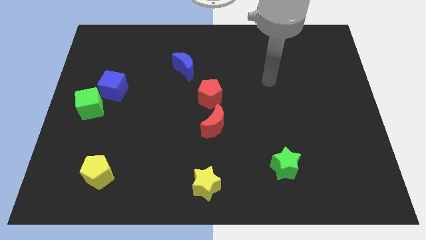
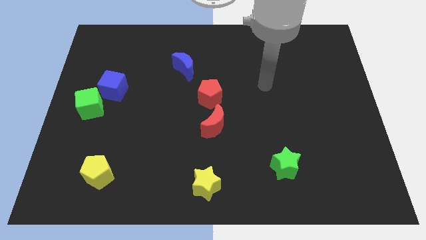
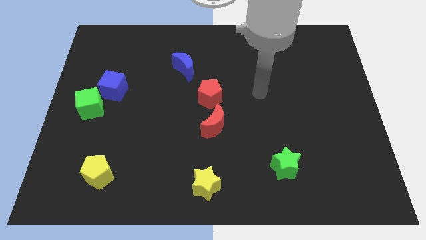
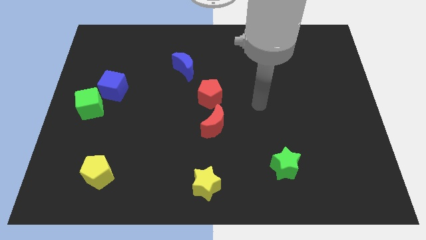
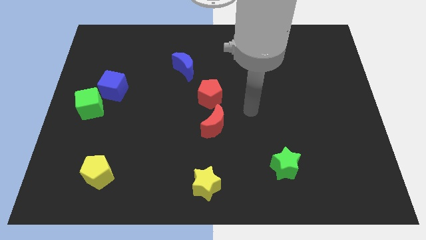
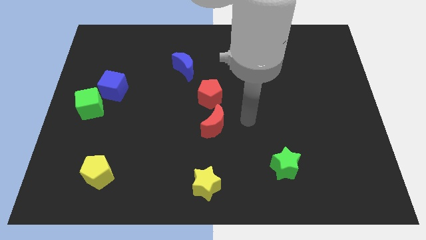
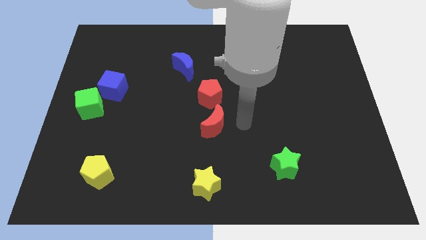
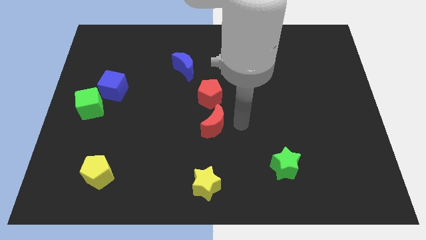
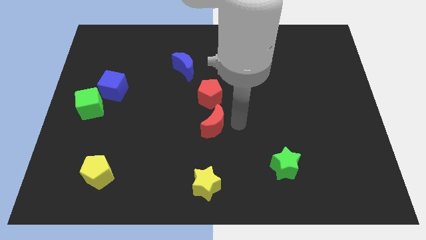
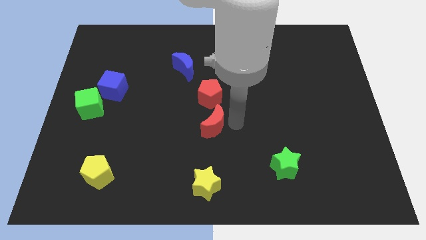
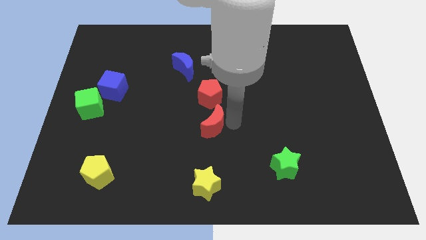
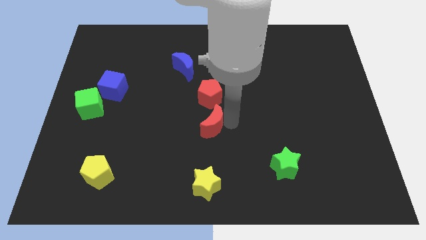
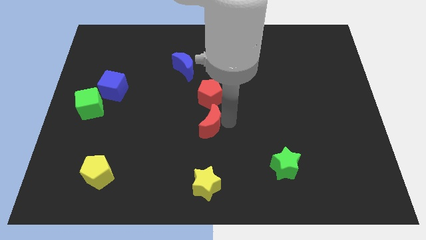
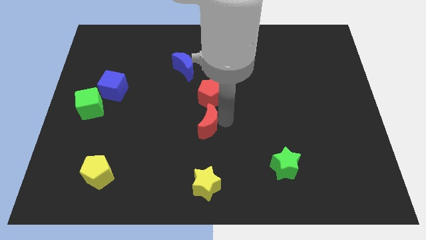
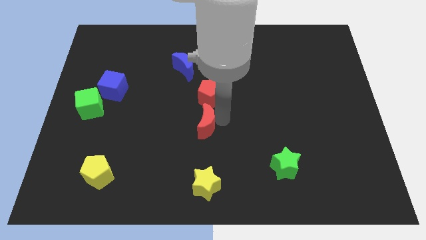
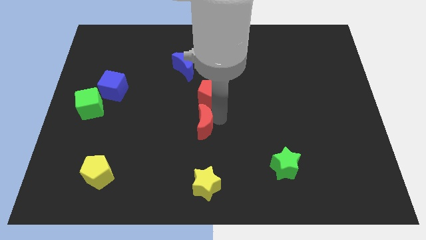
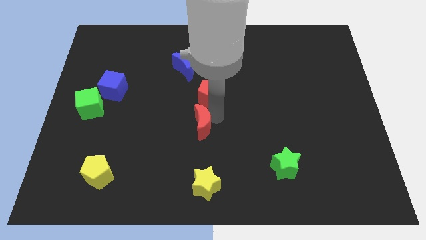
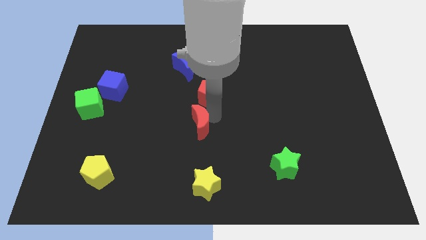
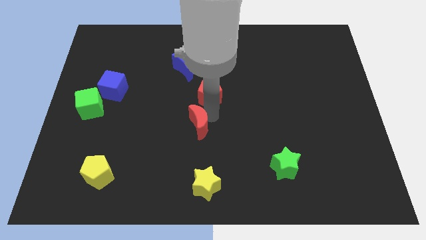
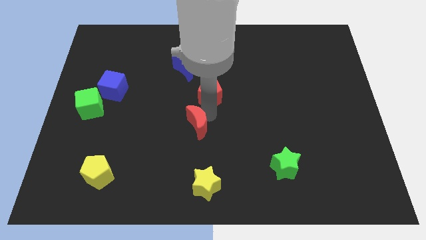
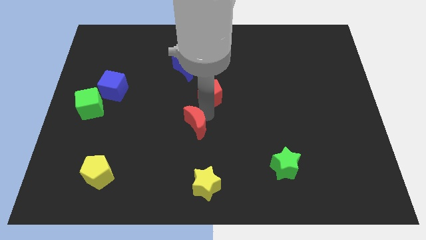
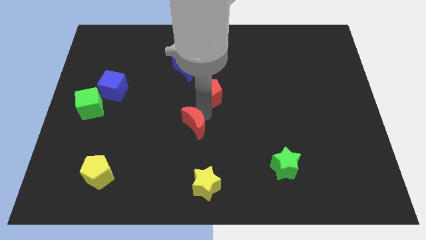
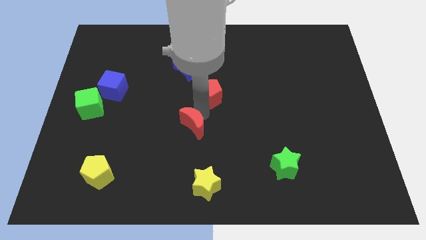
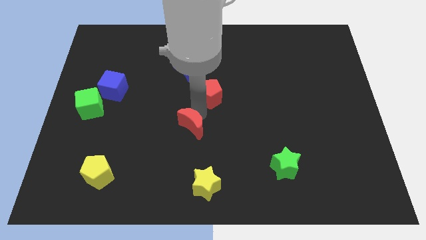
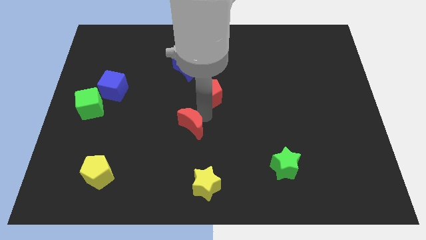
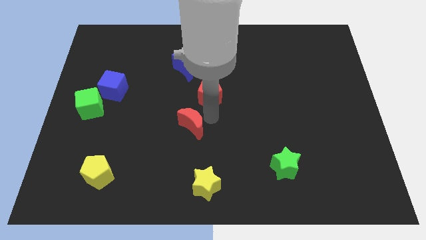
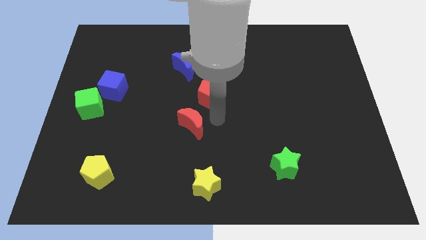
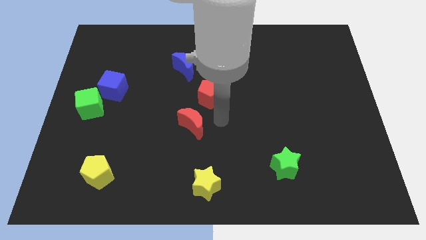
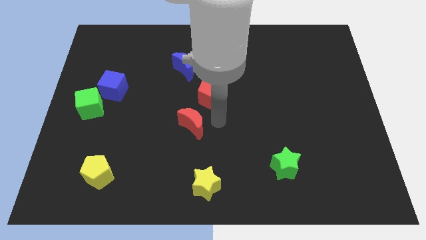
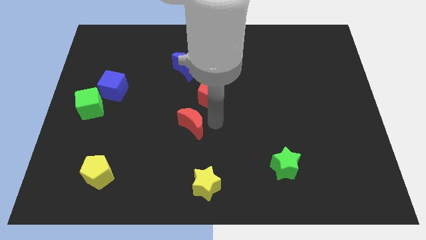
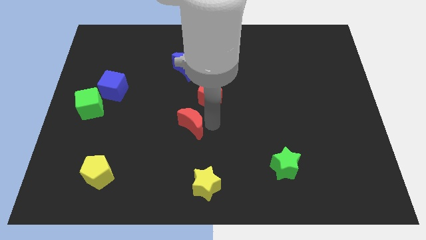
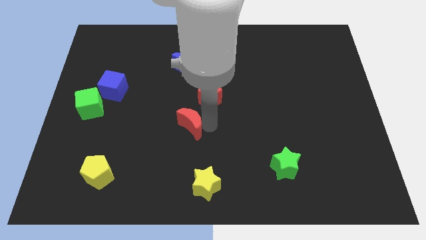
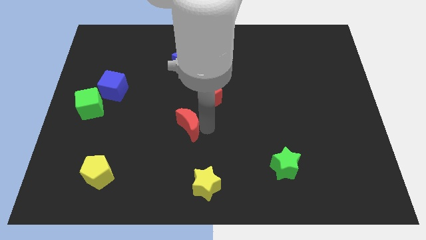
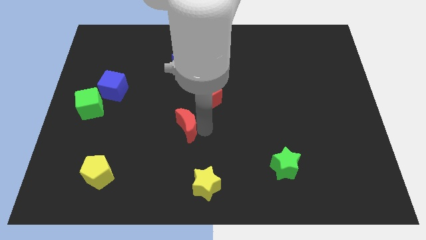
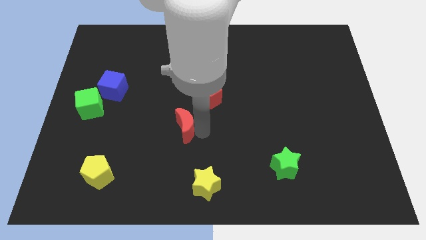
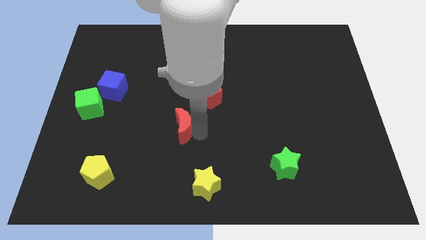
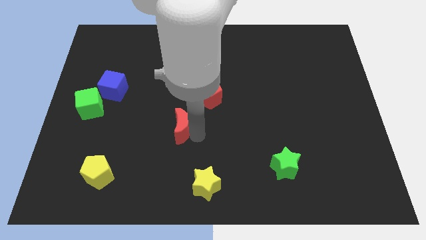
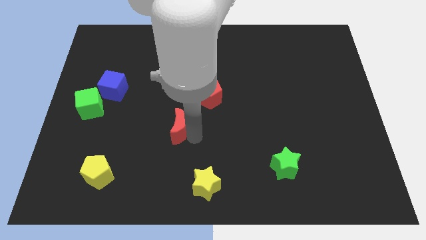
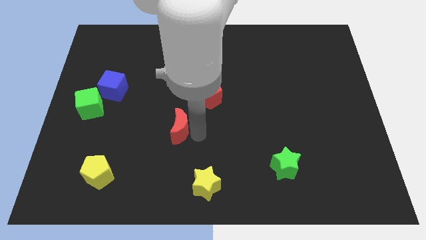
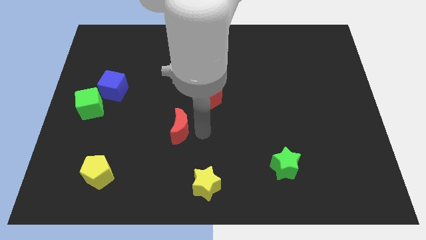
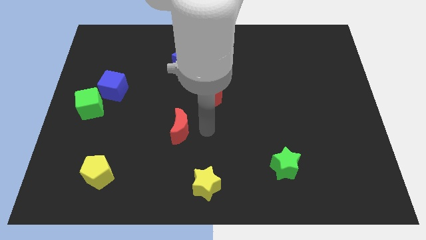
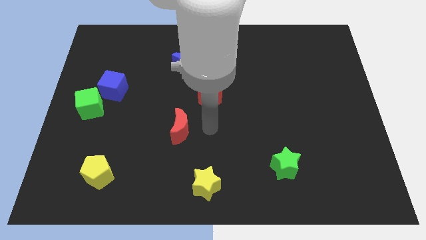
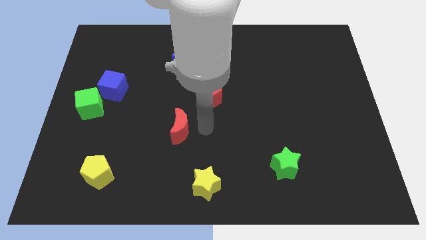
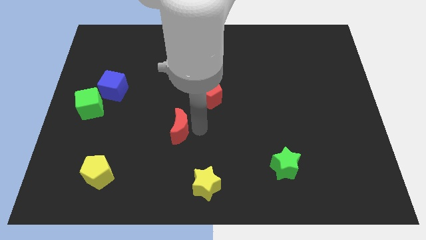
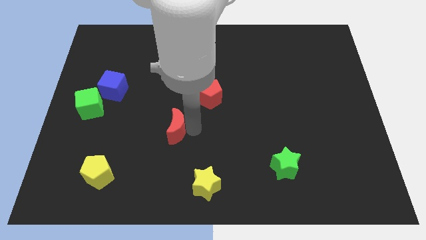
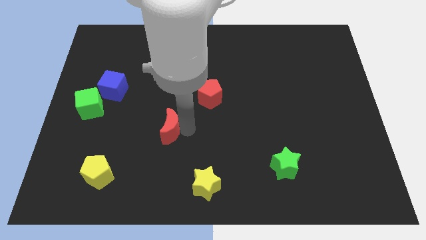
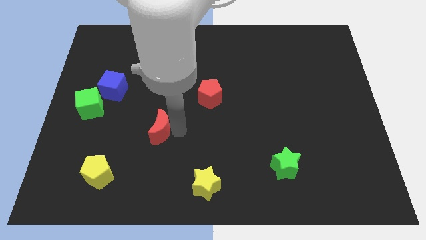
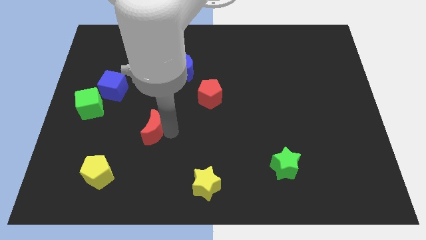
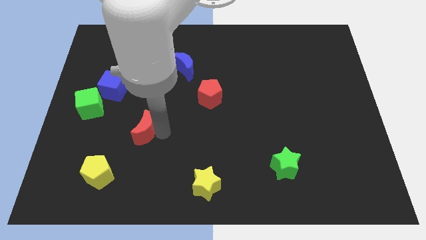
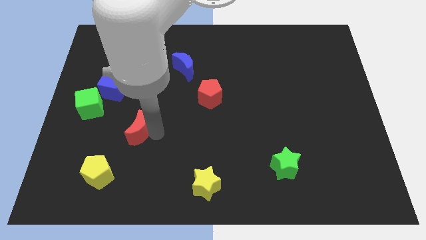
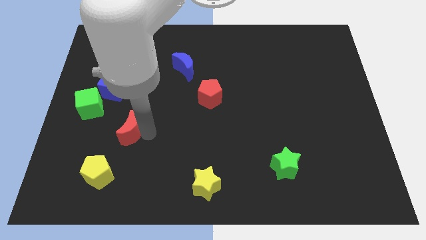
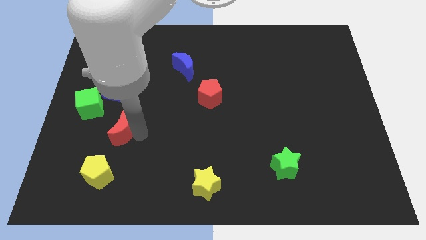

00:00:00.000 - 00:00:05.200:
move the red moon diagonally down and to the right of the green cube

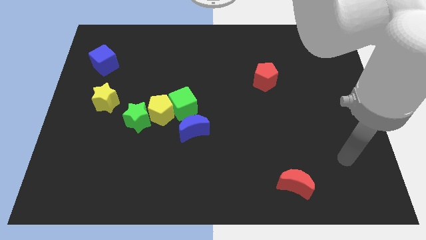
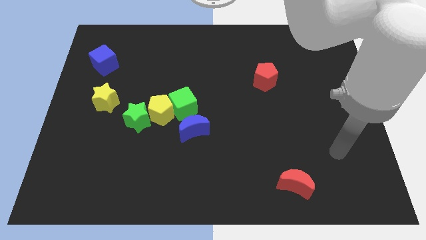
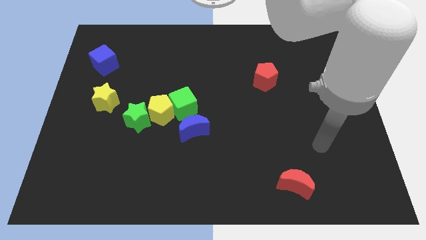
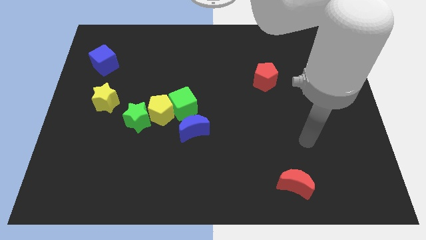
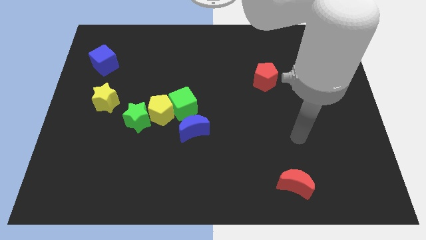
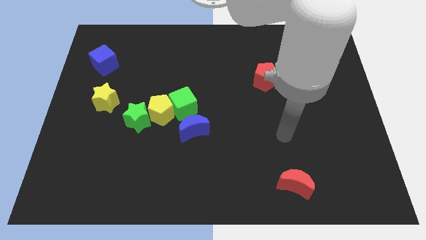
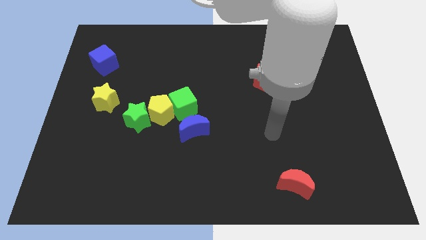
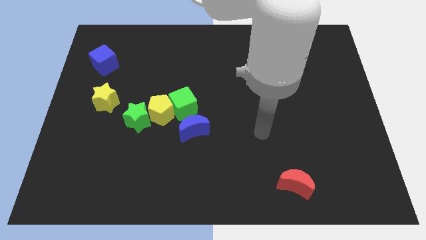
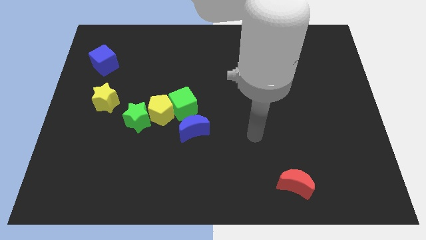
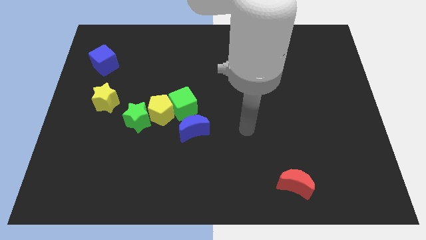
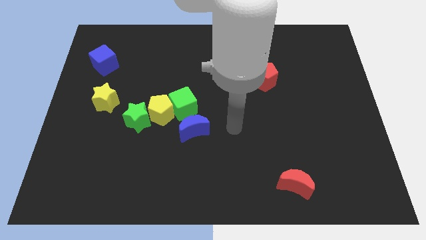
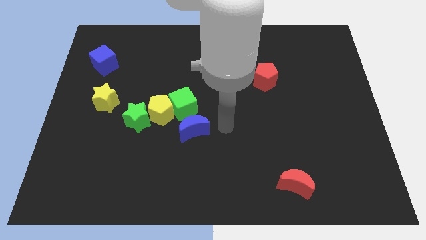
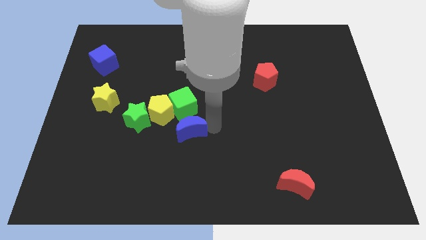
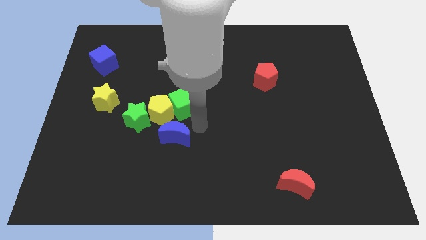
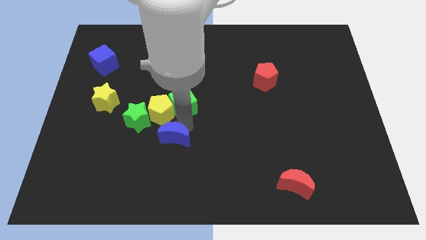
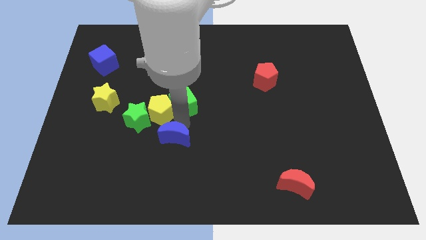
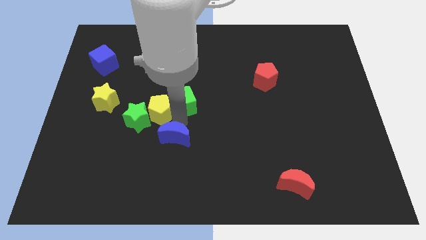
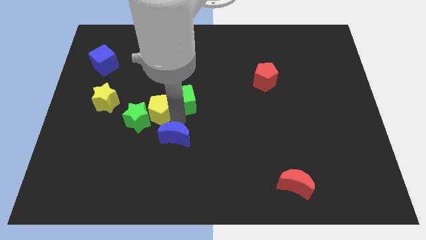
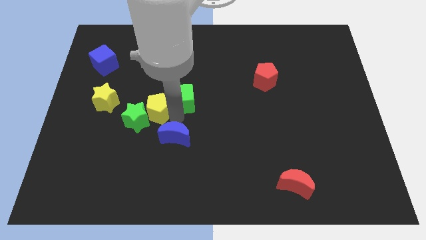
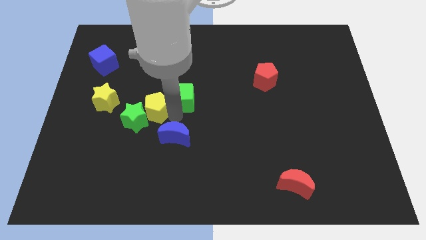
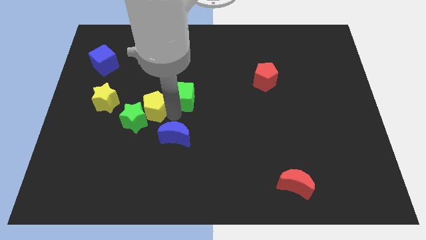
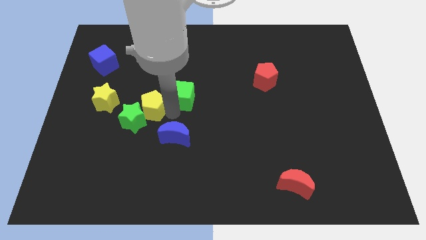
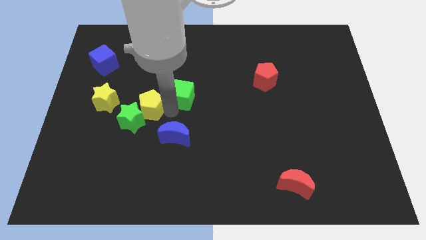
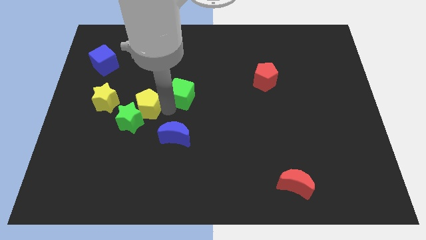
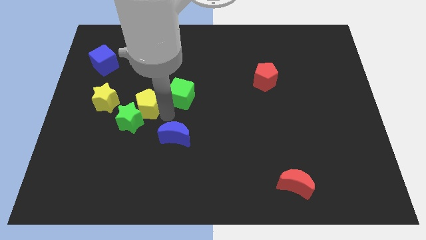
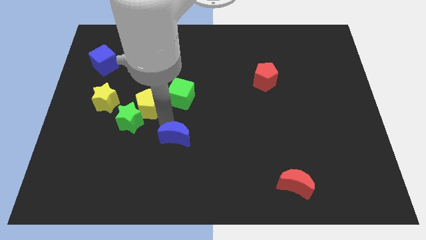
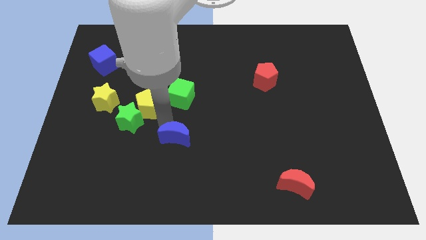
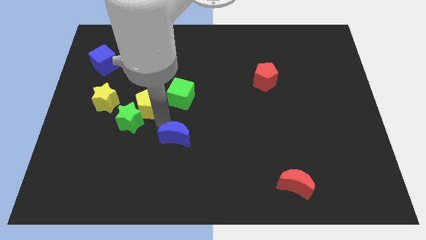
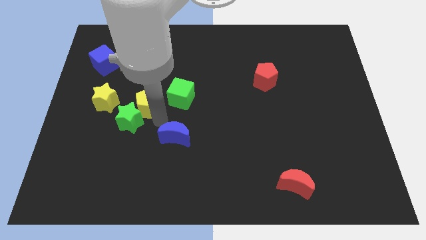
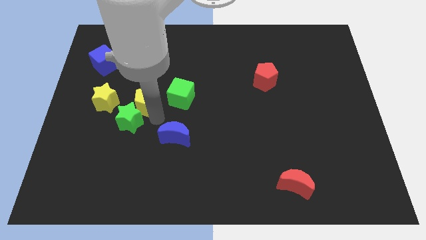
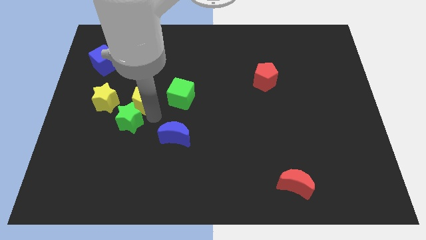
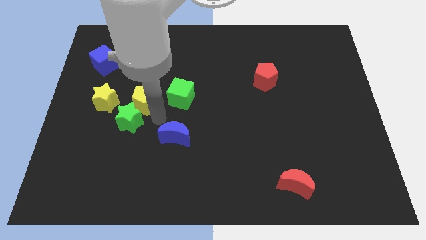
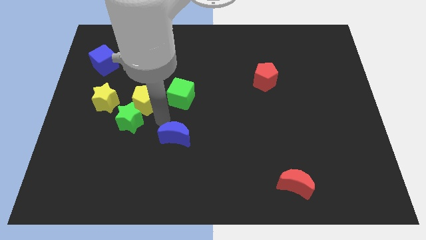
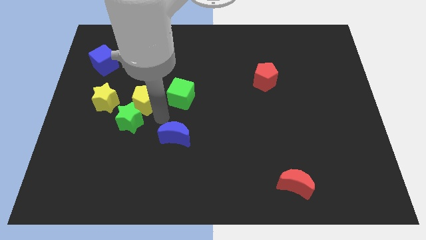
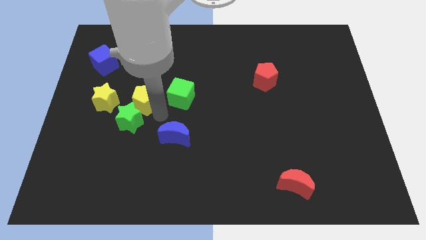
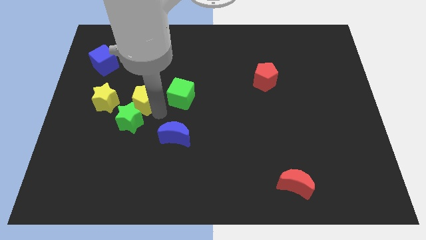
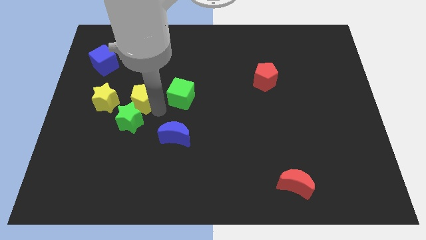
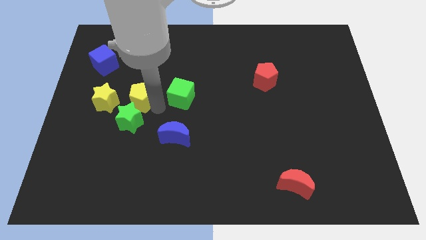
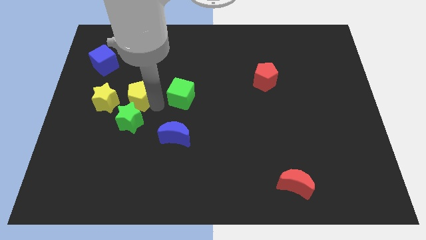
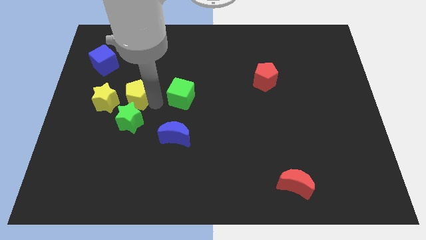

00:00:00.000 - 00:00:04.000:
slide the yellow pentagon to the top right of the yellow star
